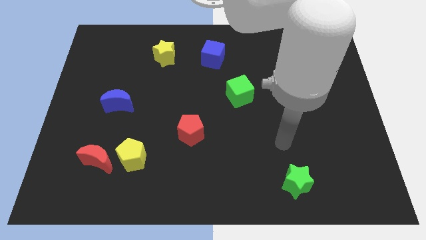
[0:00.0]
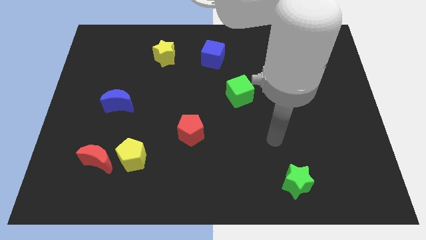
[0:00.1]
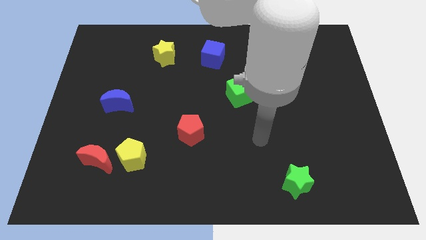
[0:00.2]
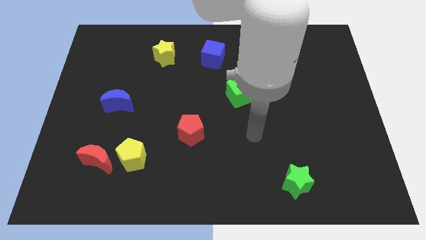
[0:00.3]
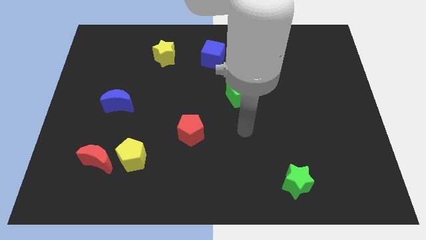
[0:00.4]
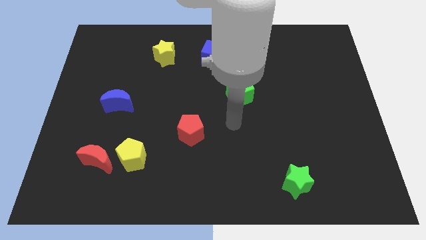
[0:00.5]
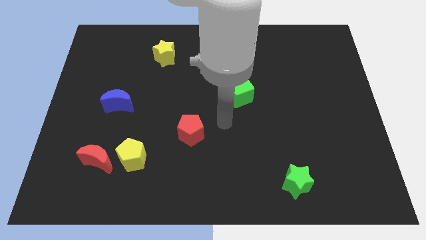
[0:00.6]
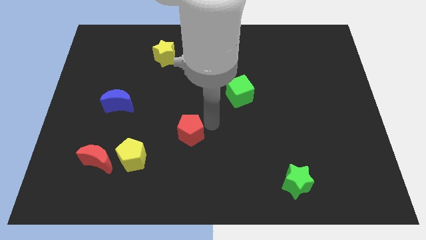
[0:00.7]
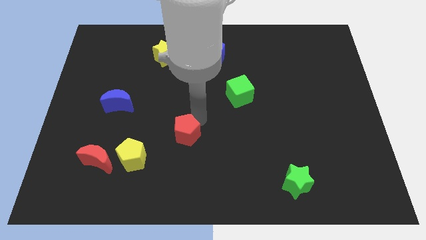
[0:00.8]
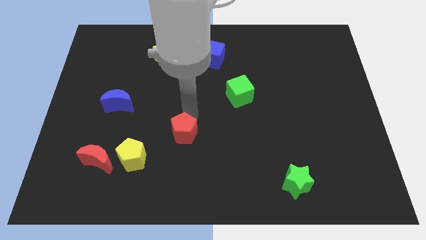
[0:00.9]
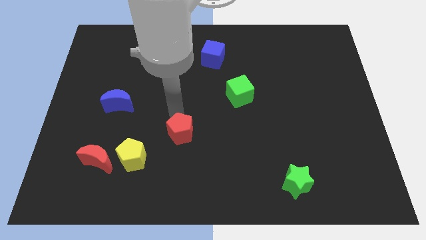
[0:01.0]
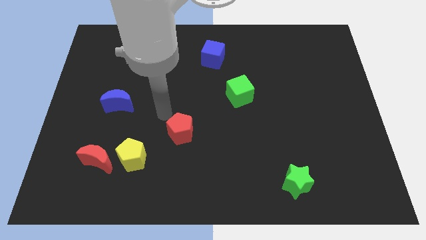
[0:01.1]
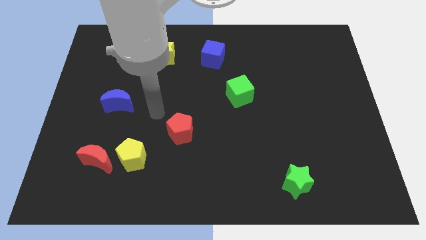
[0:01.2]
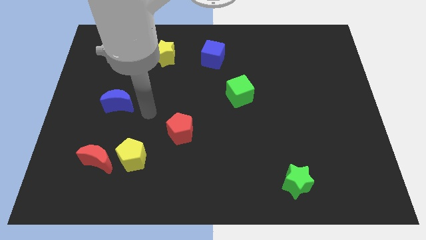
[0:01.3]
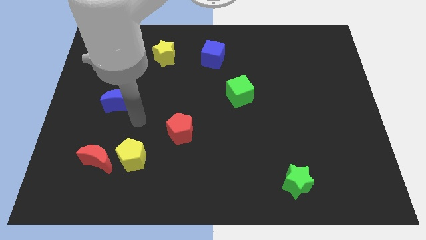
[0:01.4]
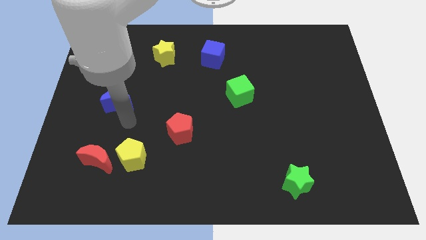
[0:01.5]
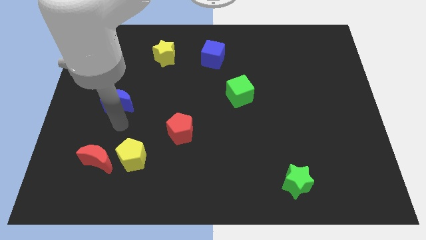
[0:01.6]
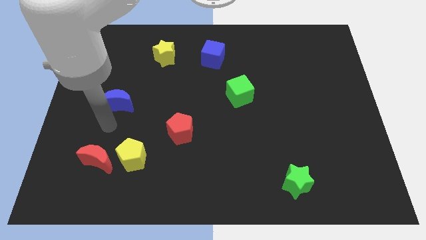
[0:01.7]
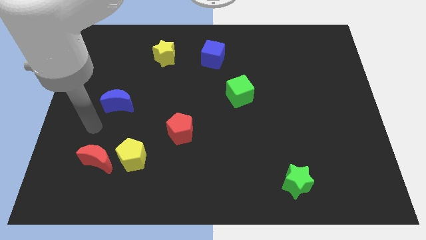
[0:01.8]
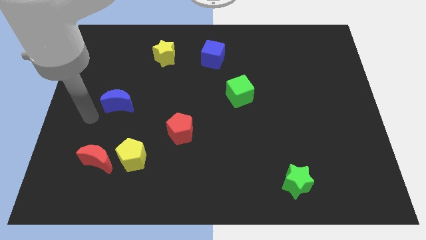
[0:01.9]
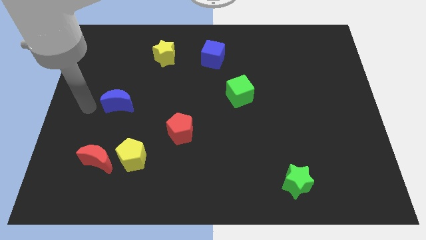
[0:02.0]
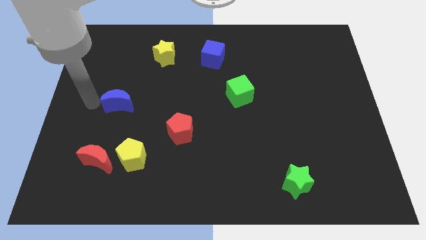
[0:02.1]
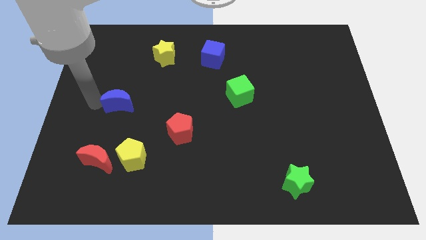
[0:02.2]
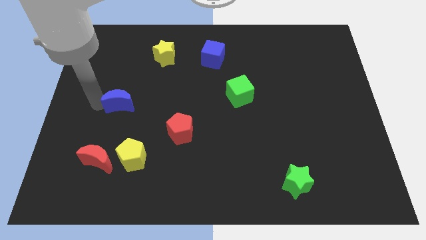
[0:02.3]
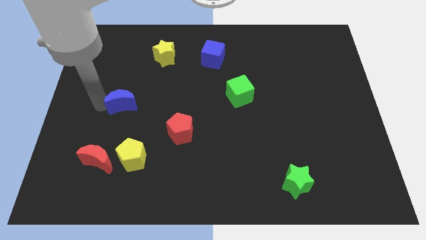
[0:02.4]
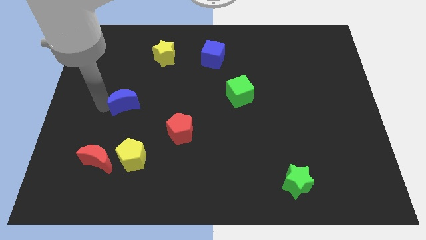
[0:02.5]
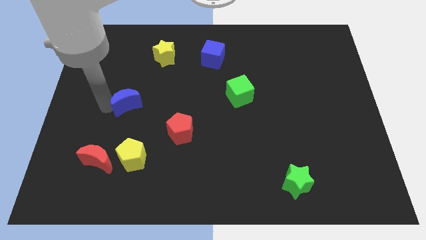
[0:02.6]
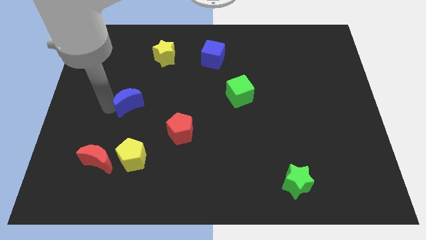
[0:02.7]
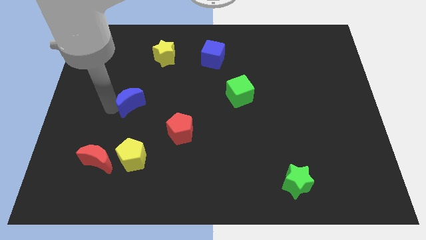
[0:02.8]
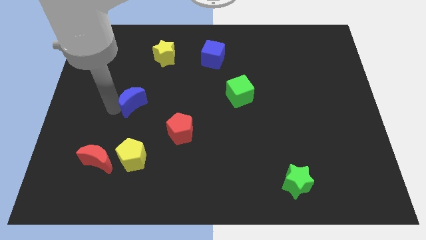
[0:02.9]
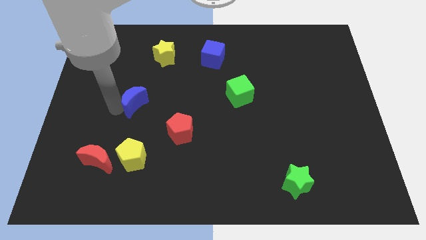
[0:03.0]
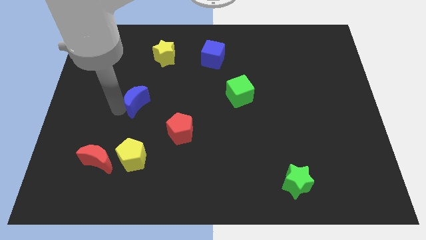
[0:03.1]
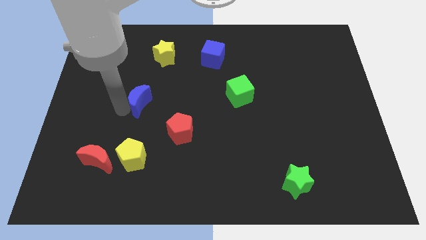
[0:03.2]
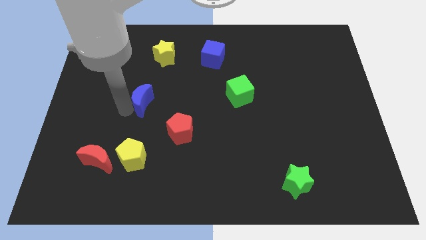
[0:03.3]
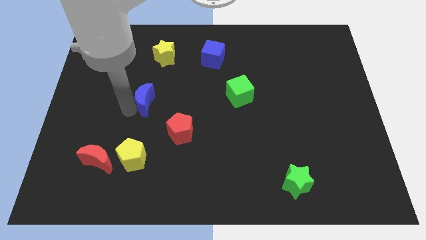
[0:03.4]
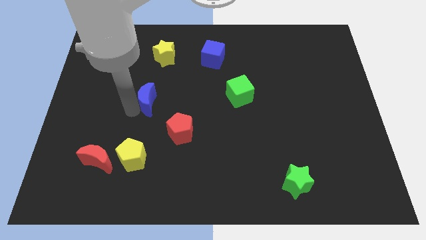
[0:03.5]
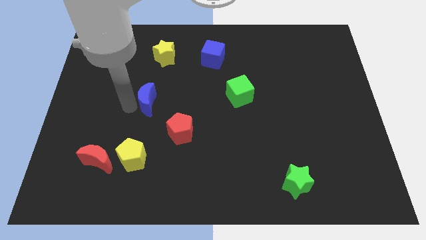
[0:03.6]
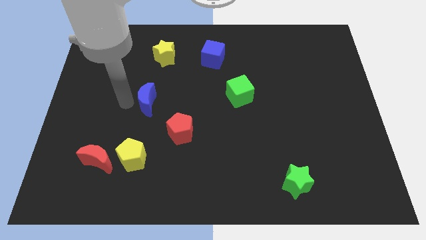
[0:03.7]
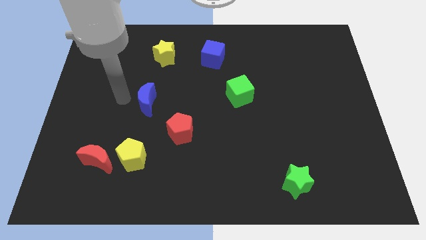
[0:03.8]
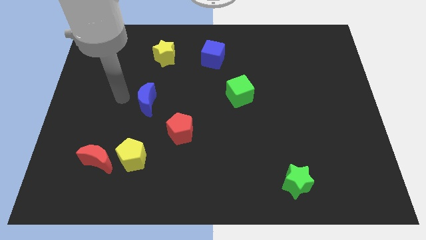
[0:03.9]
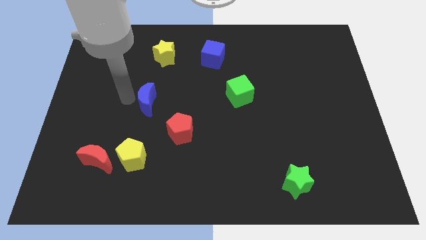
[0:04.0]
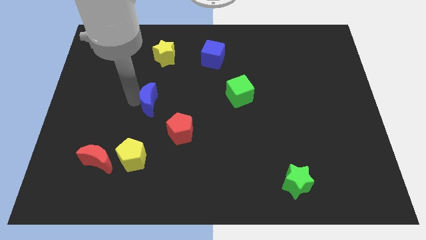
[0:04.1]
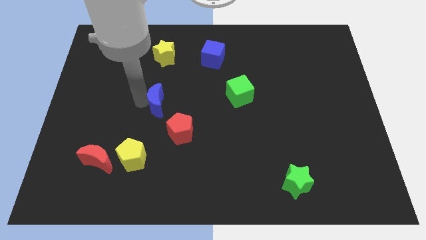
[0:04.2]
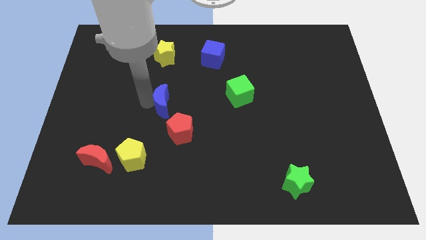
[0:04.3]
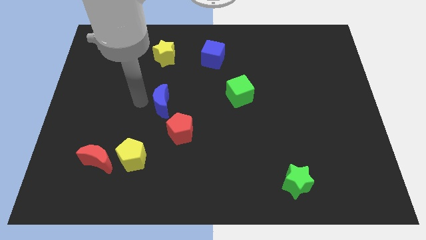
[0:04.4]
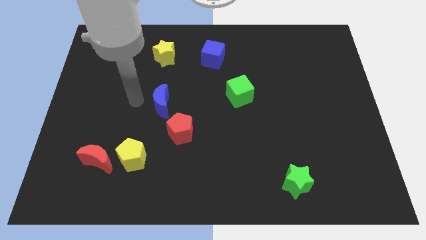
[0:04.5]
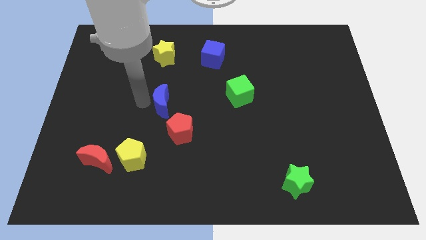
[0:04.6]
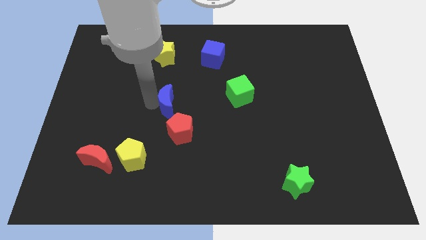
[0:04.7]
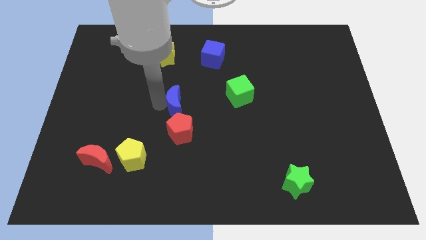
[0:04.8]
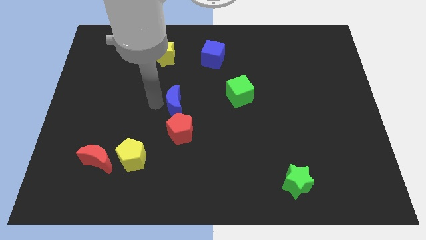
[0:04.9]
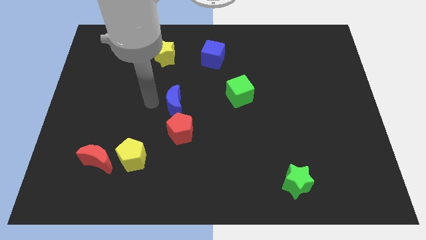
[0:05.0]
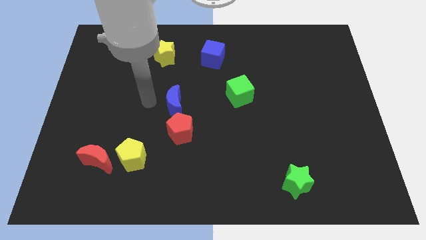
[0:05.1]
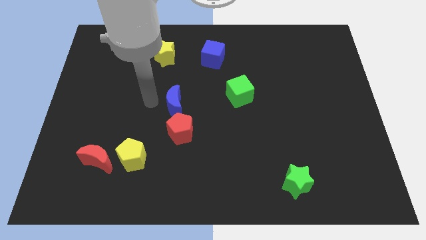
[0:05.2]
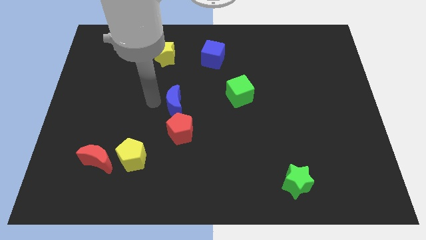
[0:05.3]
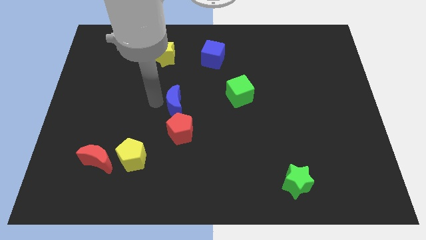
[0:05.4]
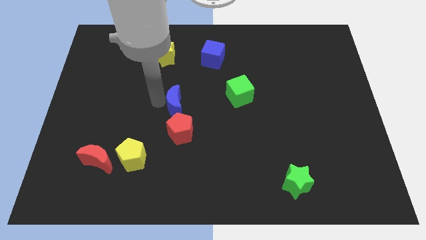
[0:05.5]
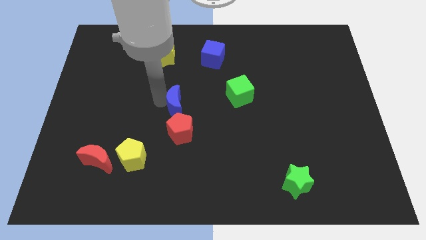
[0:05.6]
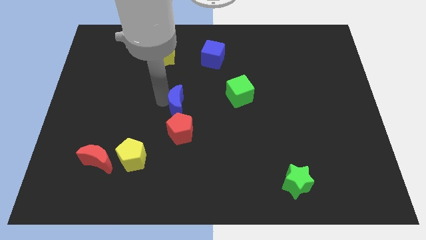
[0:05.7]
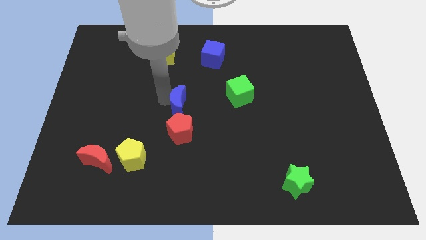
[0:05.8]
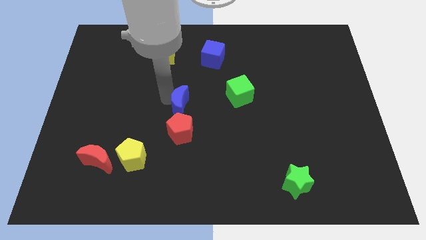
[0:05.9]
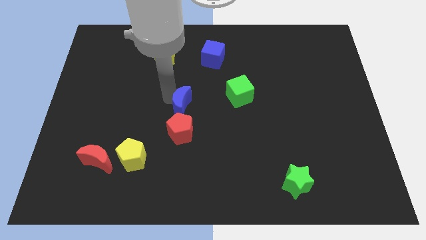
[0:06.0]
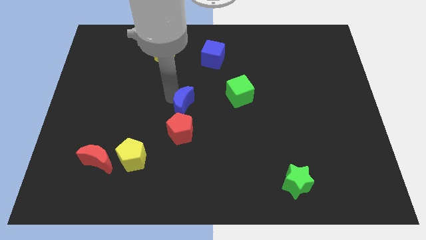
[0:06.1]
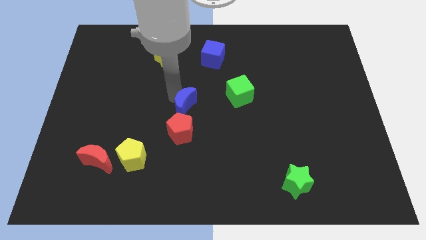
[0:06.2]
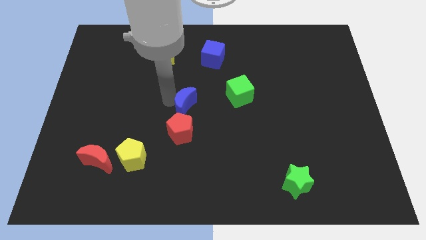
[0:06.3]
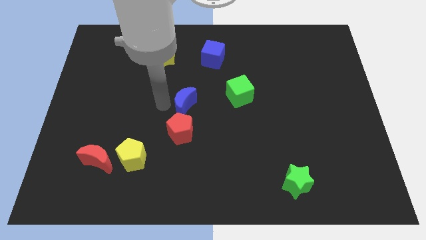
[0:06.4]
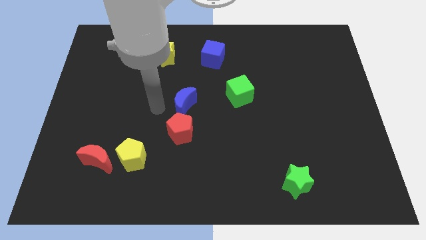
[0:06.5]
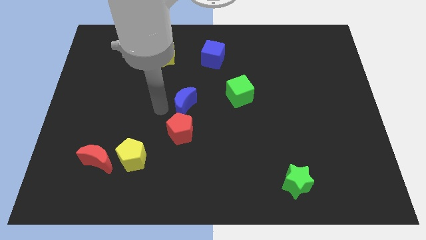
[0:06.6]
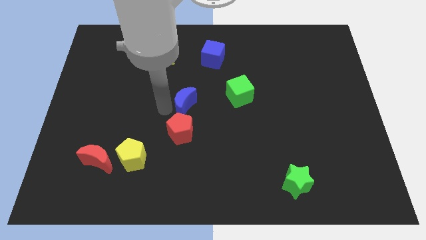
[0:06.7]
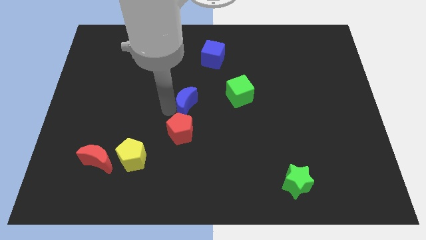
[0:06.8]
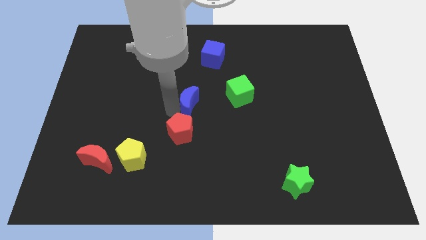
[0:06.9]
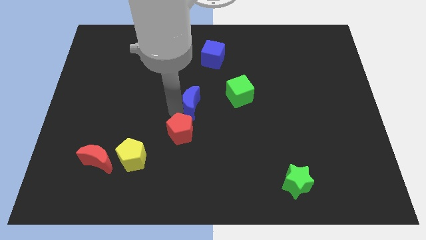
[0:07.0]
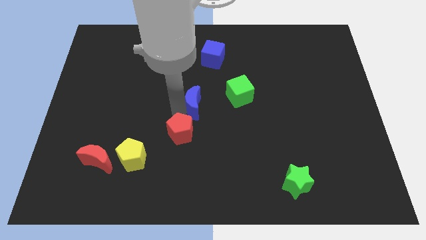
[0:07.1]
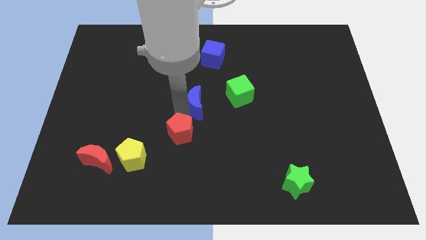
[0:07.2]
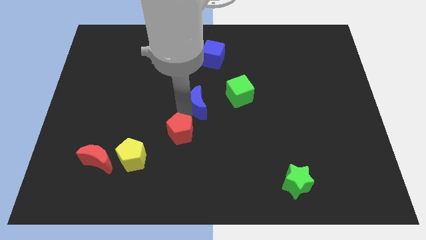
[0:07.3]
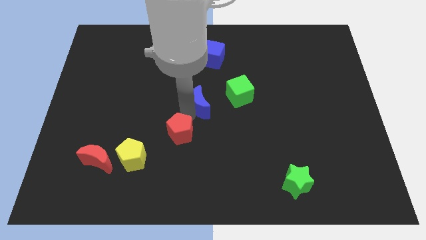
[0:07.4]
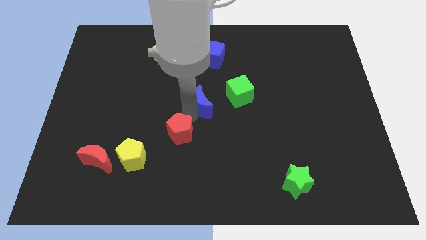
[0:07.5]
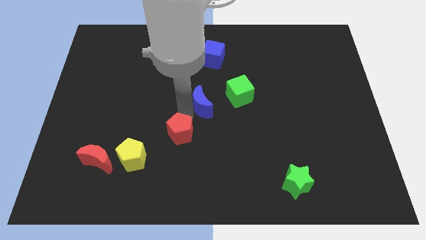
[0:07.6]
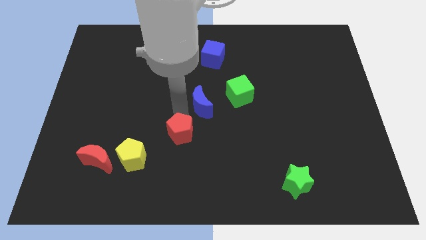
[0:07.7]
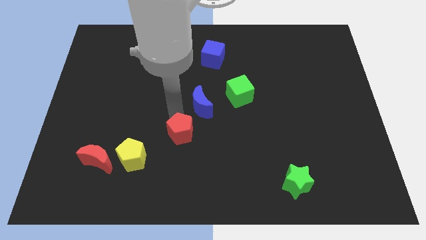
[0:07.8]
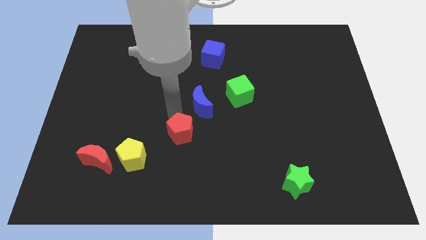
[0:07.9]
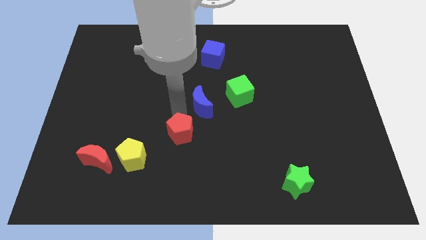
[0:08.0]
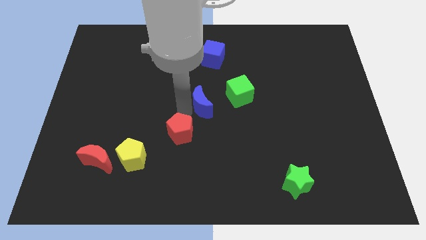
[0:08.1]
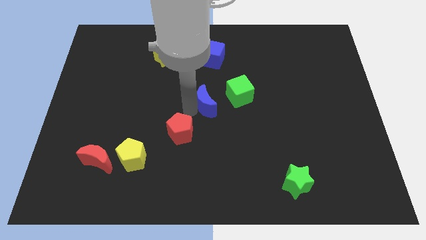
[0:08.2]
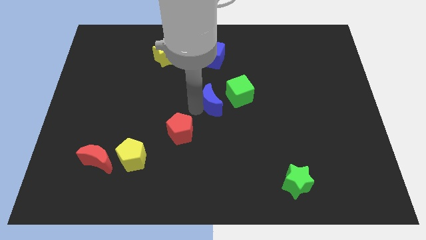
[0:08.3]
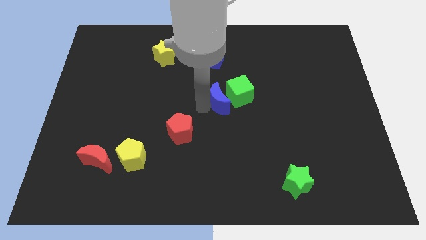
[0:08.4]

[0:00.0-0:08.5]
slide the blue moon close to the green cube
